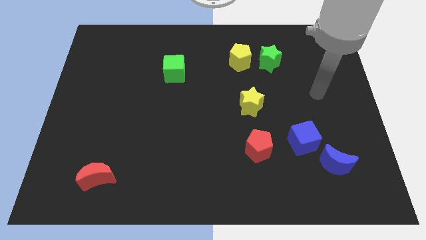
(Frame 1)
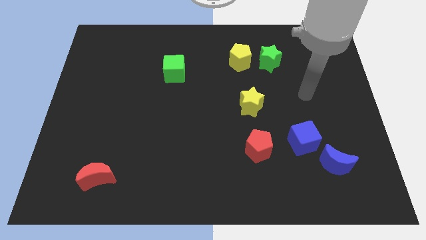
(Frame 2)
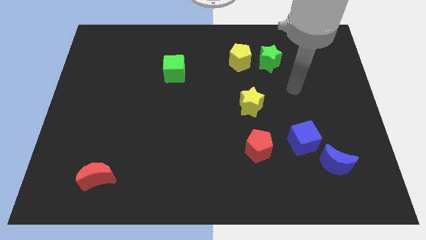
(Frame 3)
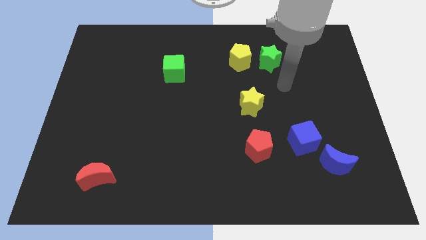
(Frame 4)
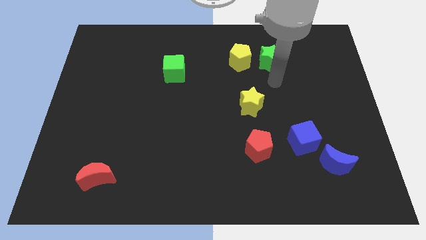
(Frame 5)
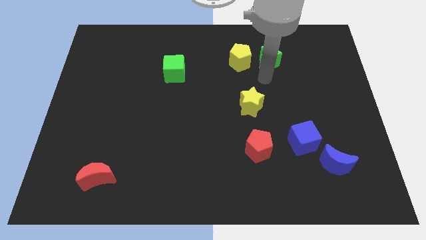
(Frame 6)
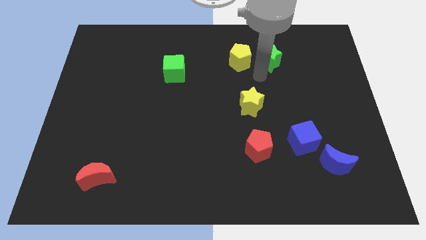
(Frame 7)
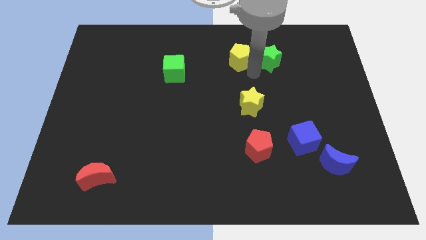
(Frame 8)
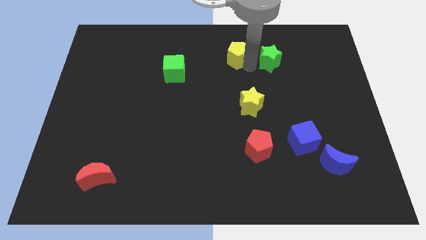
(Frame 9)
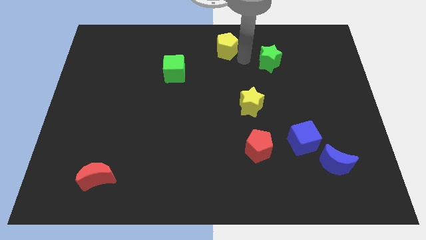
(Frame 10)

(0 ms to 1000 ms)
move the green star away from the yellow pentagon

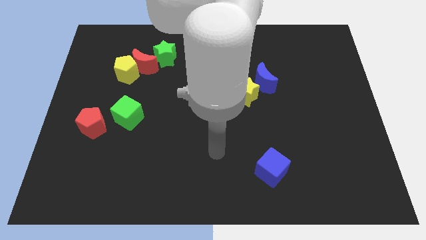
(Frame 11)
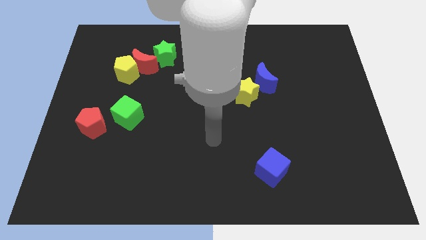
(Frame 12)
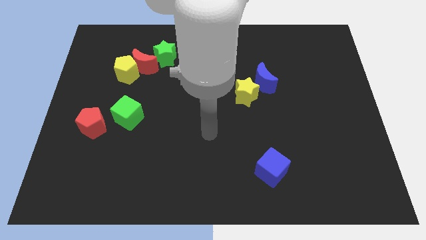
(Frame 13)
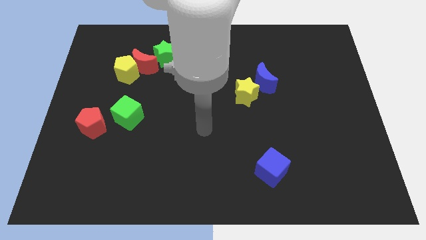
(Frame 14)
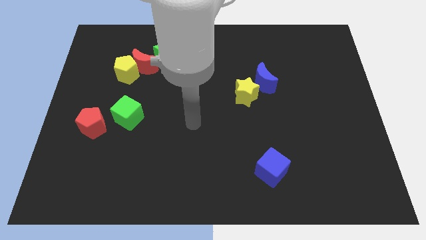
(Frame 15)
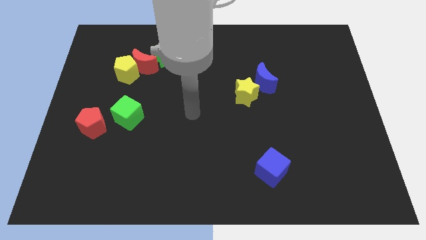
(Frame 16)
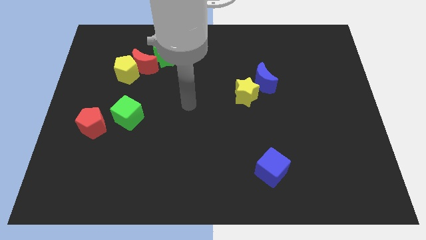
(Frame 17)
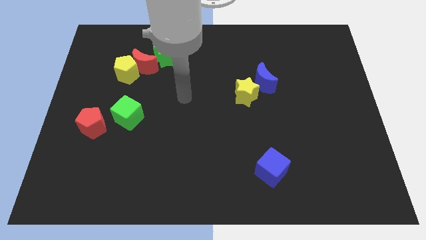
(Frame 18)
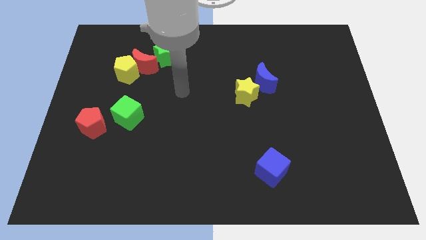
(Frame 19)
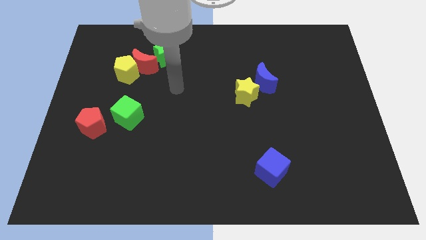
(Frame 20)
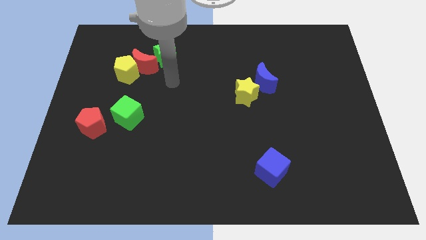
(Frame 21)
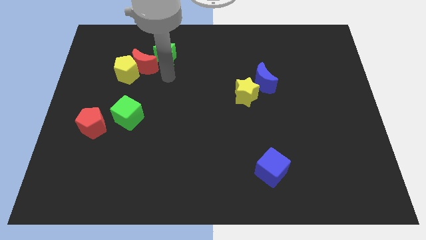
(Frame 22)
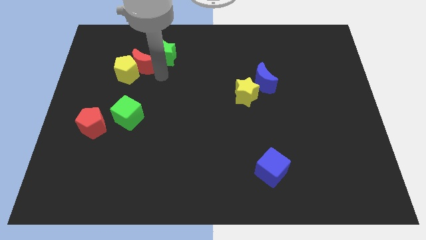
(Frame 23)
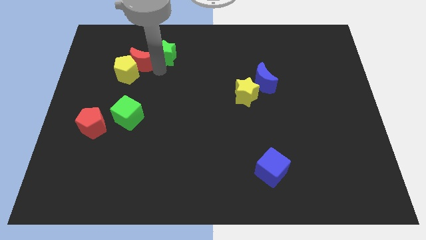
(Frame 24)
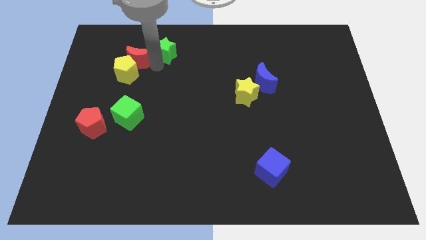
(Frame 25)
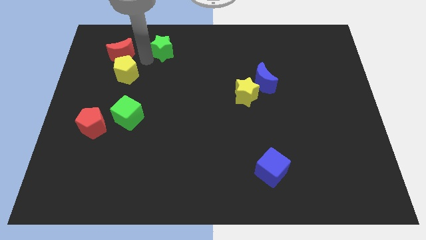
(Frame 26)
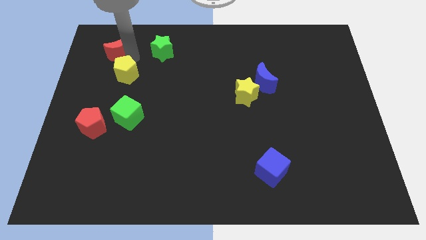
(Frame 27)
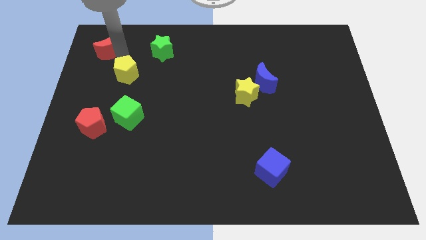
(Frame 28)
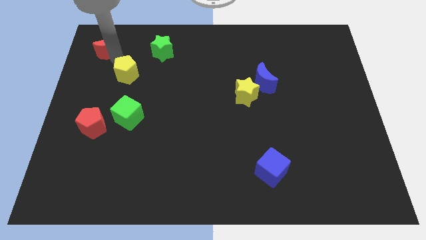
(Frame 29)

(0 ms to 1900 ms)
move the yellow pentagon away from the red moon

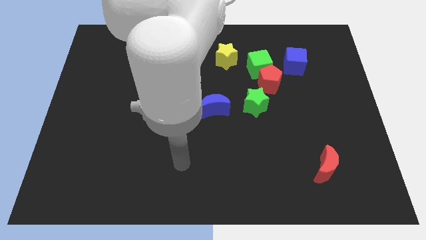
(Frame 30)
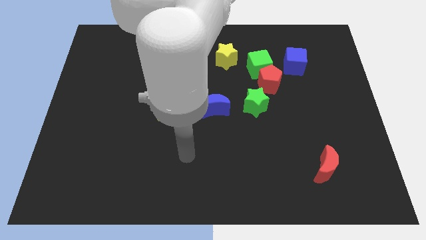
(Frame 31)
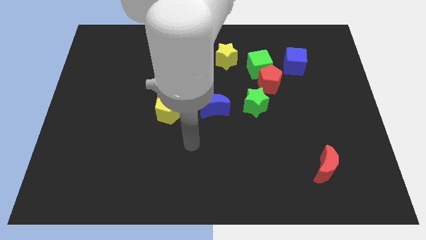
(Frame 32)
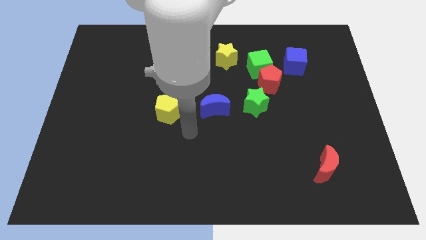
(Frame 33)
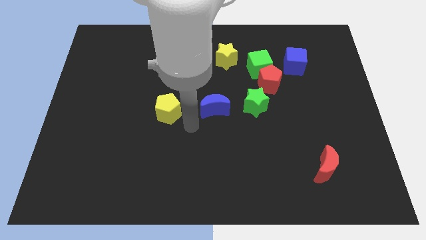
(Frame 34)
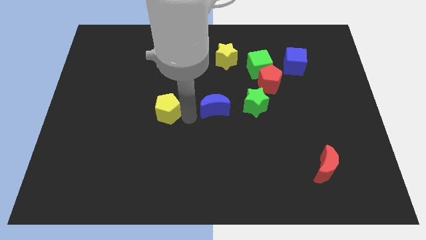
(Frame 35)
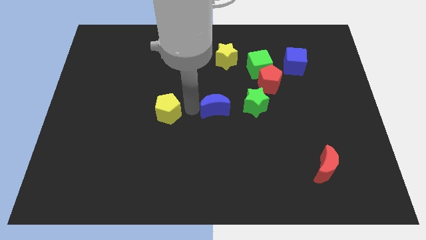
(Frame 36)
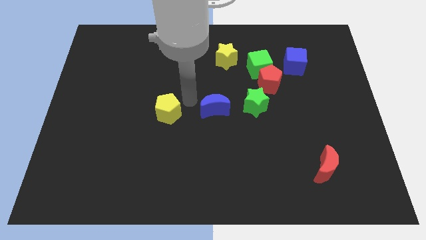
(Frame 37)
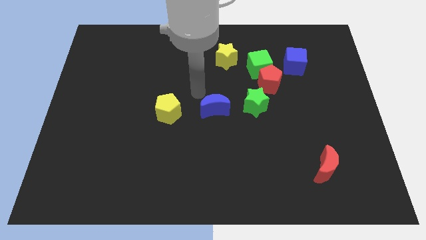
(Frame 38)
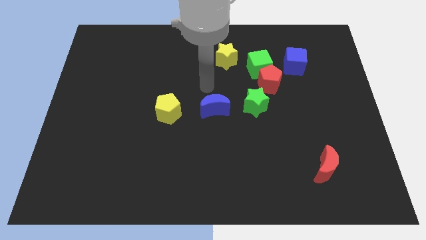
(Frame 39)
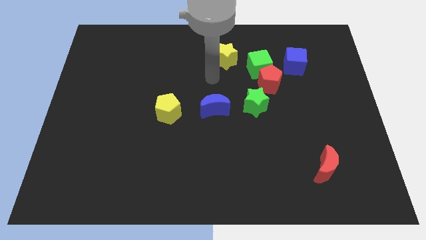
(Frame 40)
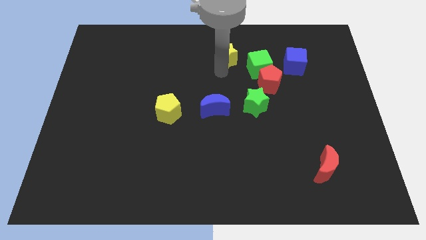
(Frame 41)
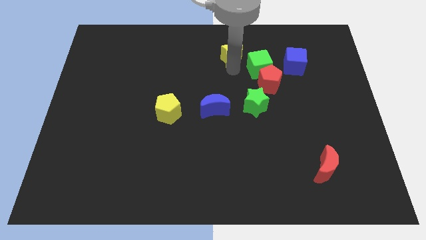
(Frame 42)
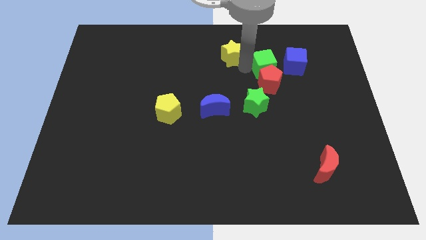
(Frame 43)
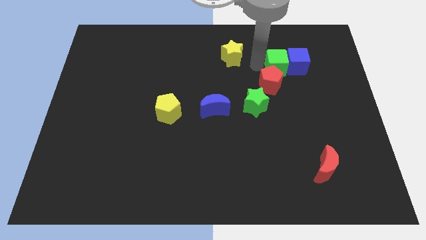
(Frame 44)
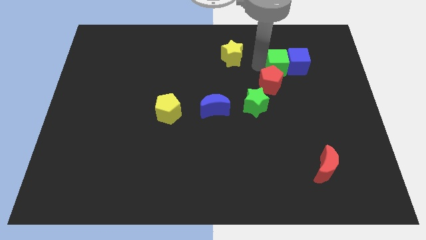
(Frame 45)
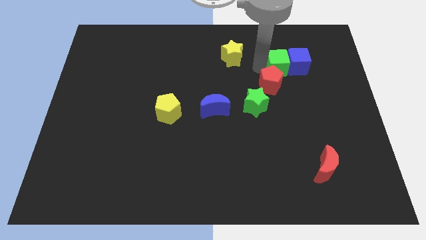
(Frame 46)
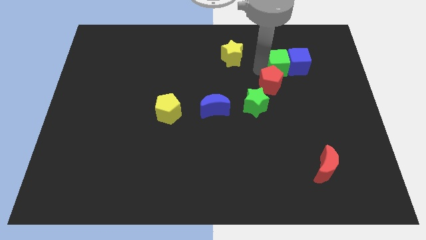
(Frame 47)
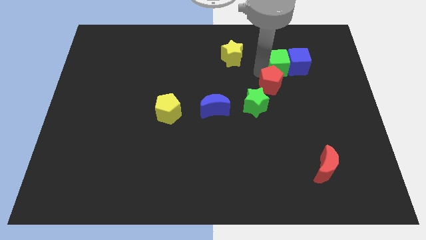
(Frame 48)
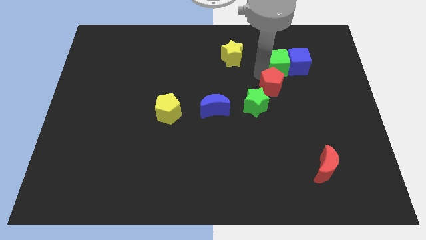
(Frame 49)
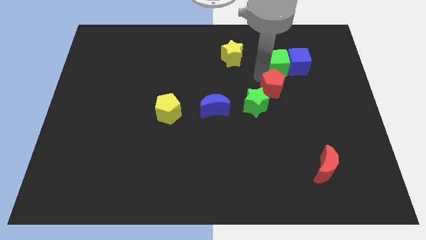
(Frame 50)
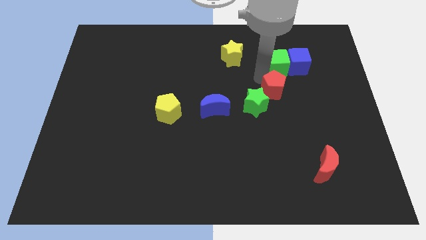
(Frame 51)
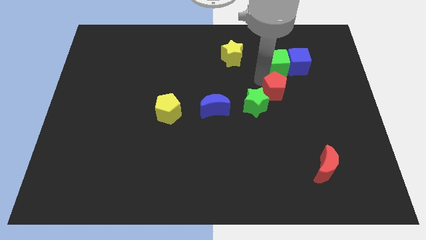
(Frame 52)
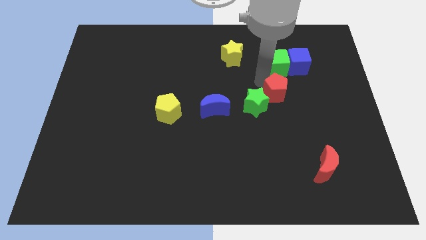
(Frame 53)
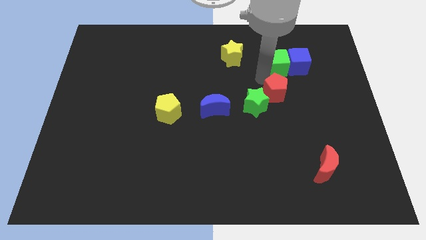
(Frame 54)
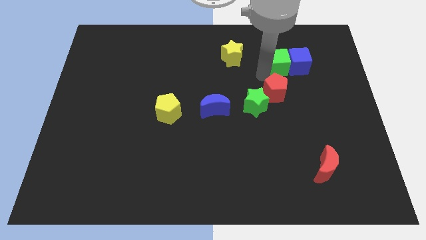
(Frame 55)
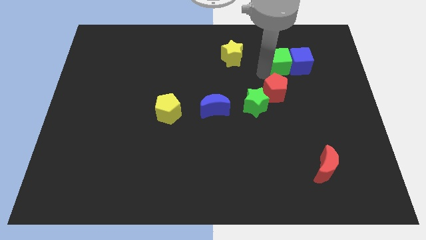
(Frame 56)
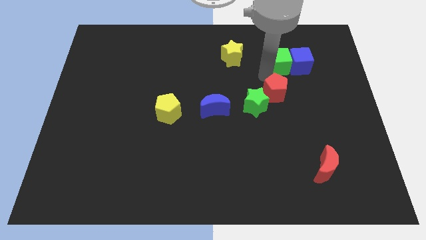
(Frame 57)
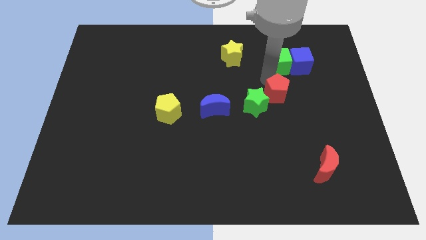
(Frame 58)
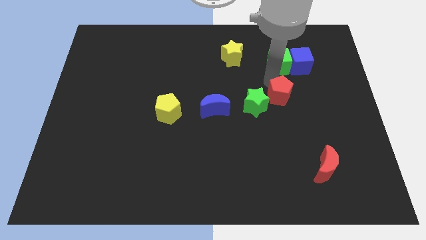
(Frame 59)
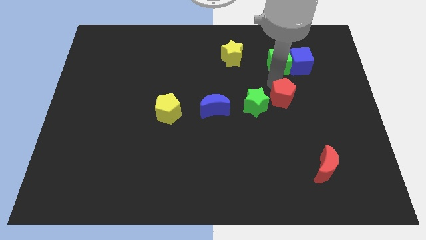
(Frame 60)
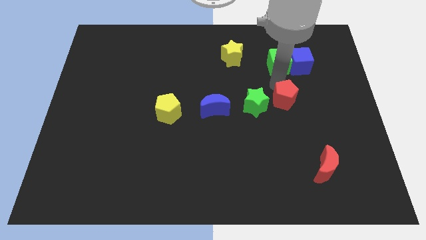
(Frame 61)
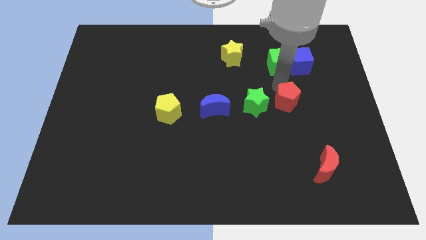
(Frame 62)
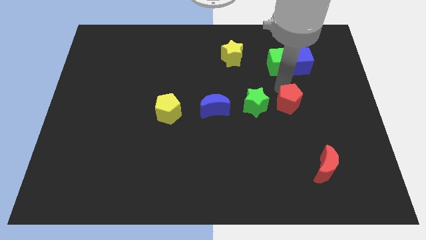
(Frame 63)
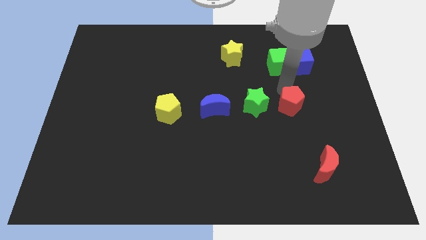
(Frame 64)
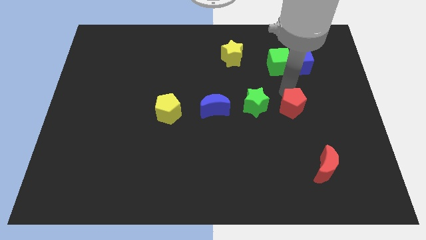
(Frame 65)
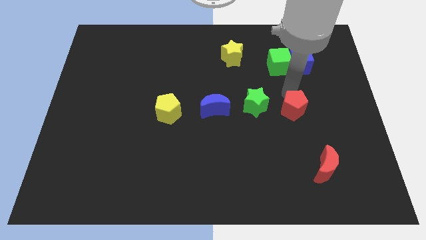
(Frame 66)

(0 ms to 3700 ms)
separate the red pentagon from the green cube, green star, and blue cube

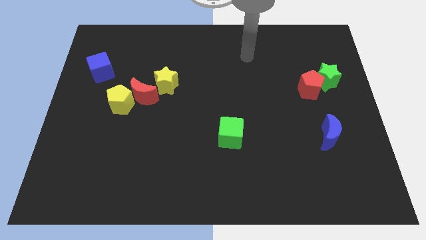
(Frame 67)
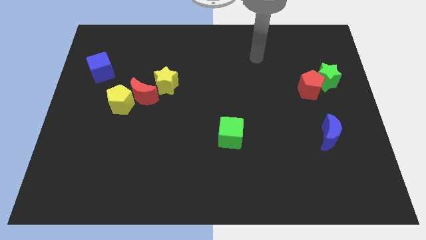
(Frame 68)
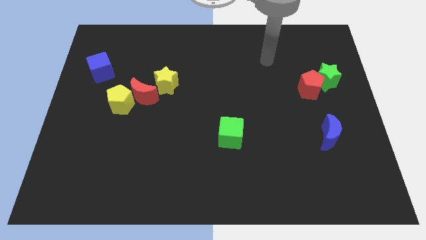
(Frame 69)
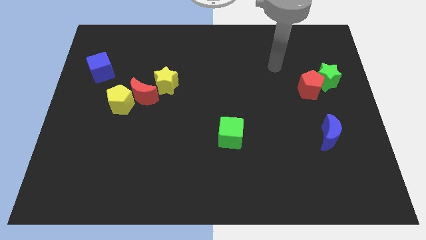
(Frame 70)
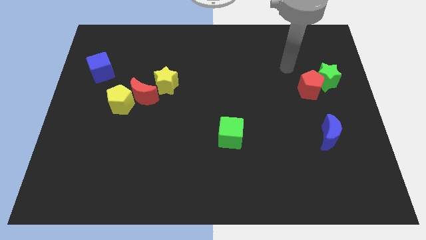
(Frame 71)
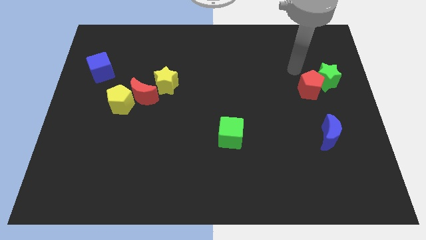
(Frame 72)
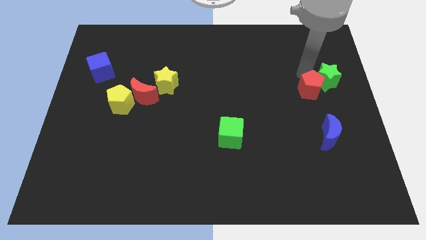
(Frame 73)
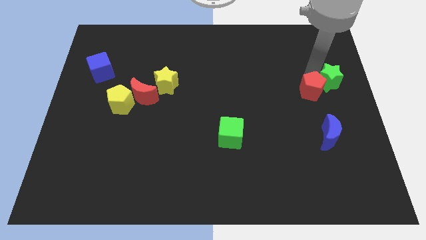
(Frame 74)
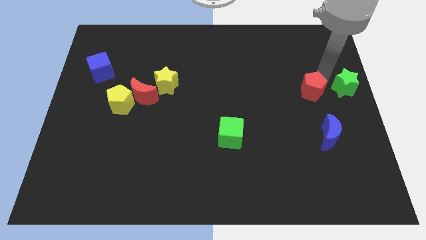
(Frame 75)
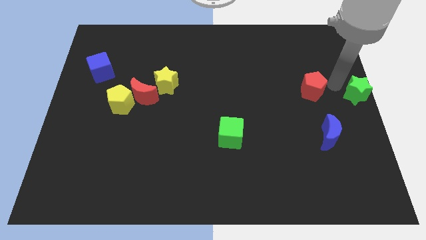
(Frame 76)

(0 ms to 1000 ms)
pull the red pentagon apart from the green star

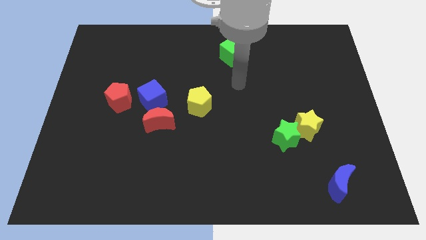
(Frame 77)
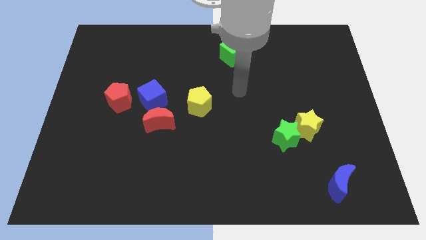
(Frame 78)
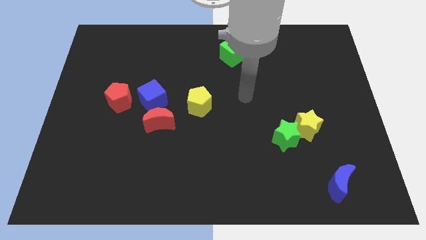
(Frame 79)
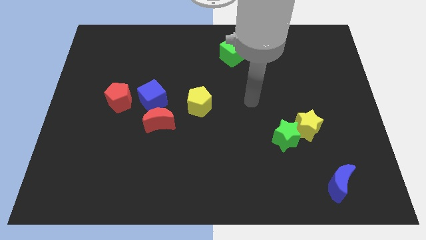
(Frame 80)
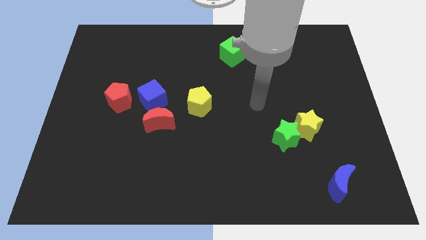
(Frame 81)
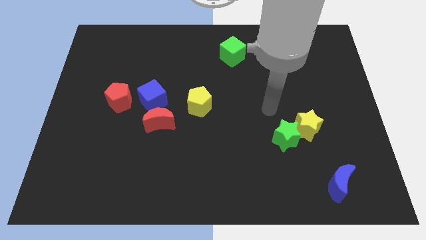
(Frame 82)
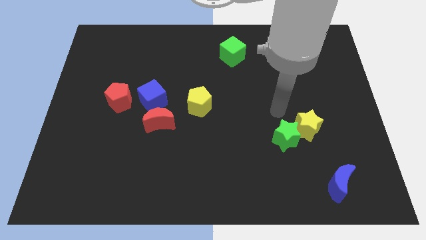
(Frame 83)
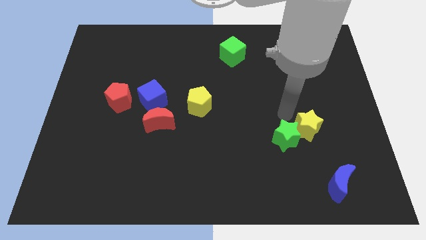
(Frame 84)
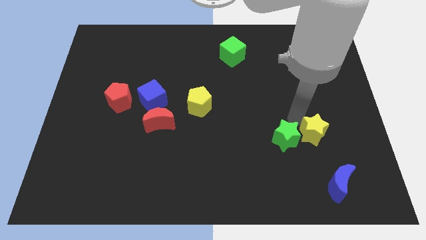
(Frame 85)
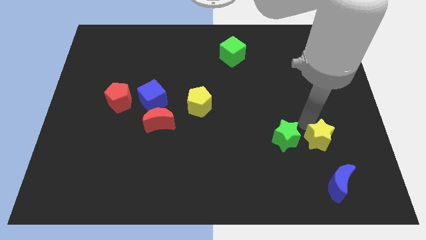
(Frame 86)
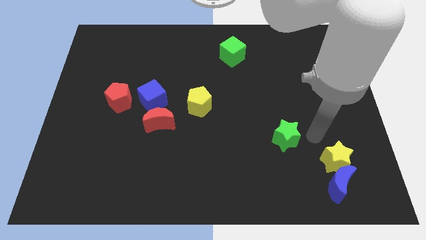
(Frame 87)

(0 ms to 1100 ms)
pull the green star apart from the yellow star

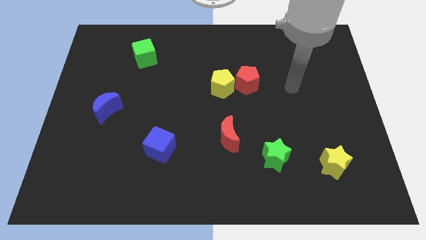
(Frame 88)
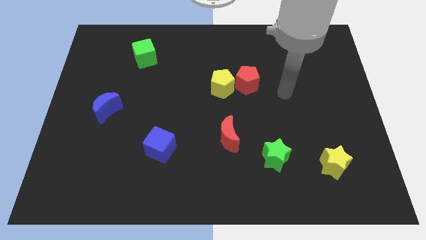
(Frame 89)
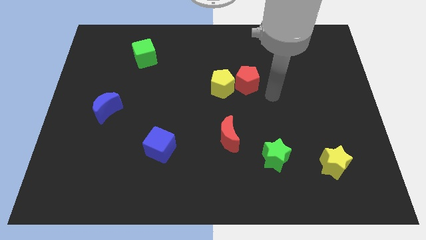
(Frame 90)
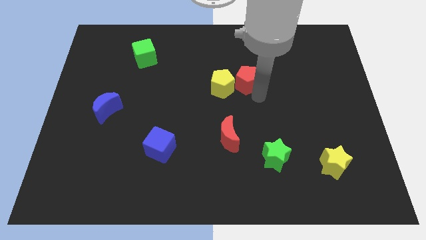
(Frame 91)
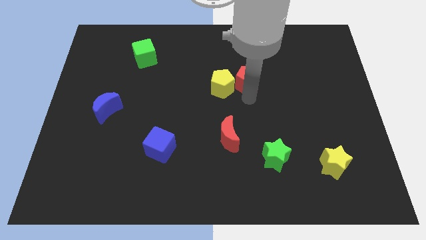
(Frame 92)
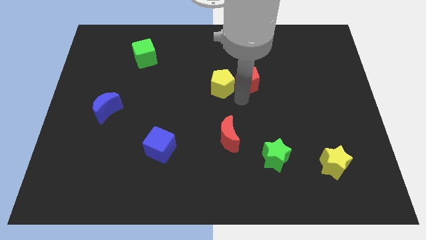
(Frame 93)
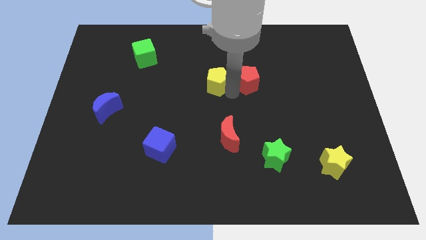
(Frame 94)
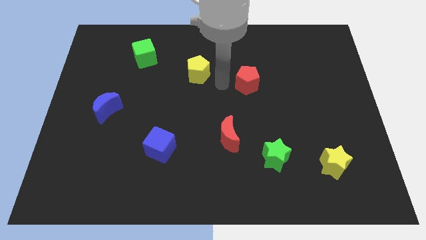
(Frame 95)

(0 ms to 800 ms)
move the red pentagon away from the yellow pentagon
